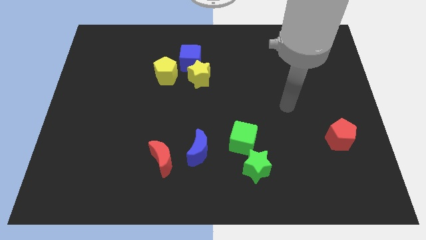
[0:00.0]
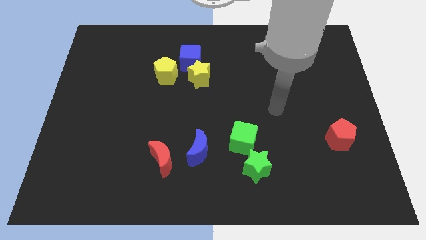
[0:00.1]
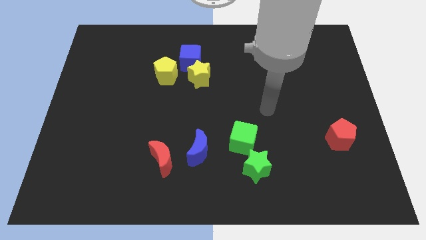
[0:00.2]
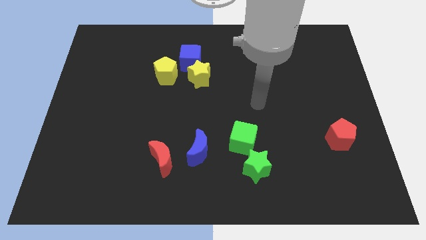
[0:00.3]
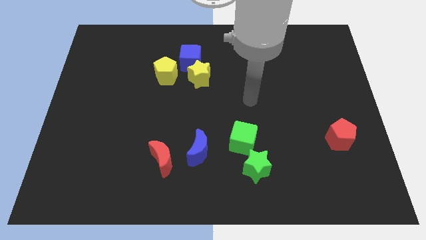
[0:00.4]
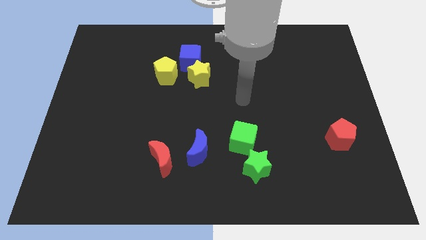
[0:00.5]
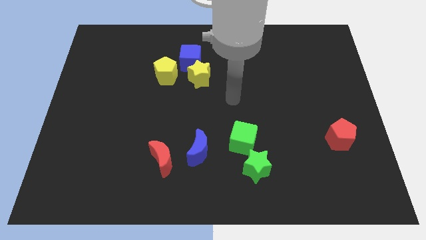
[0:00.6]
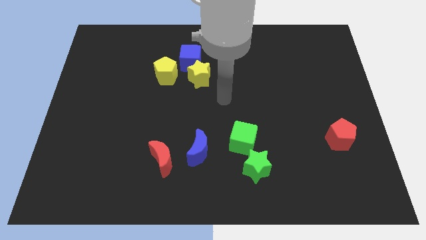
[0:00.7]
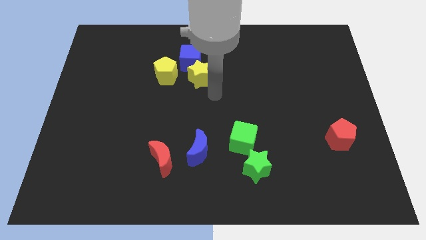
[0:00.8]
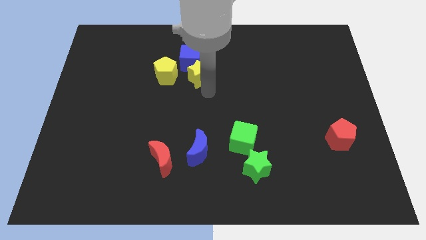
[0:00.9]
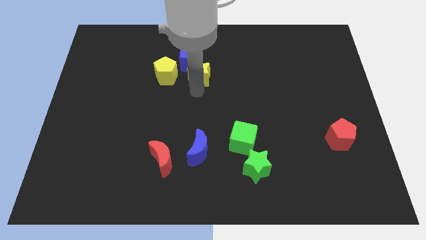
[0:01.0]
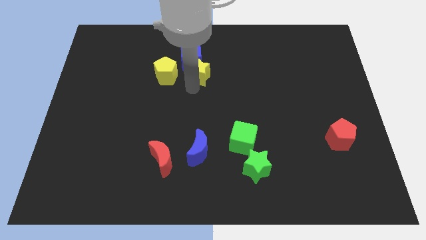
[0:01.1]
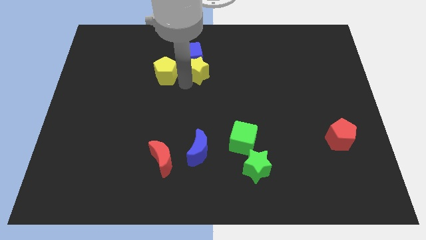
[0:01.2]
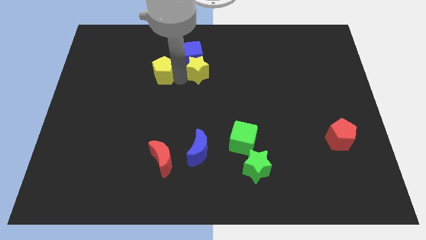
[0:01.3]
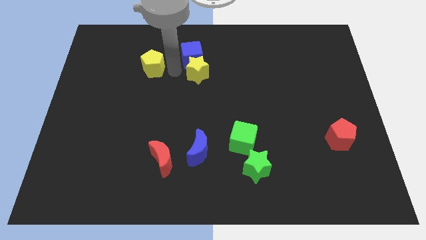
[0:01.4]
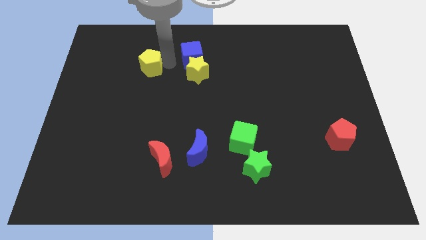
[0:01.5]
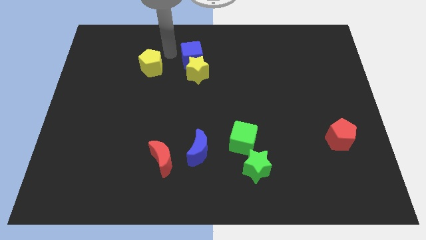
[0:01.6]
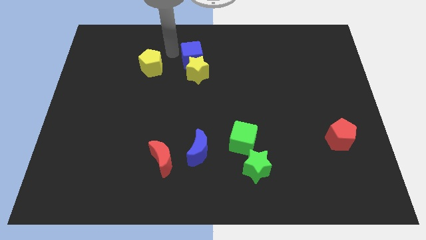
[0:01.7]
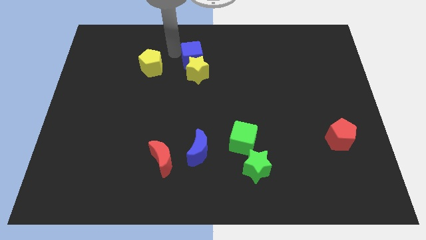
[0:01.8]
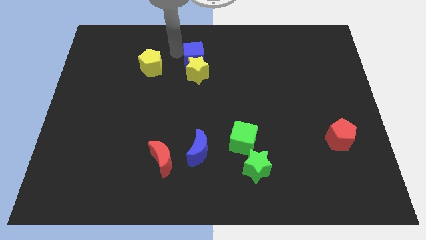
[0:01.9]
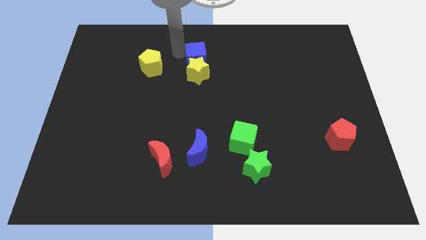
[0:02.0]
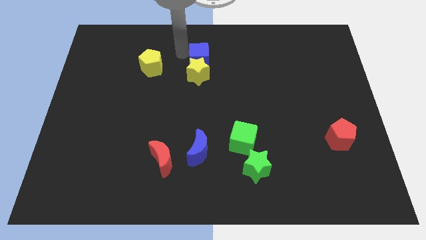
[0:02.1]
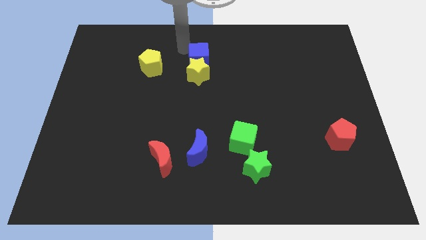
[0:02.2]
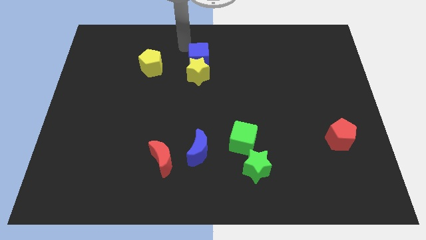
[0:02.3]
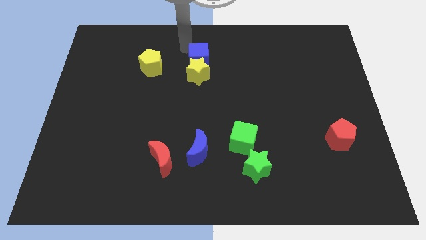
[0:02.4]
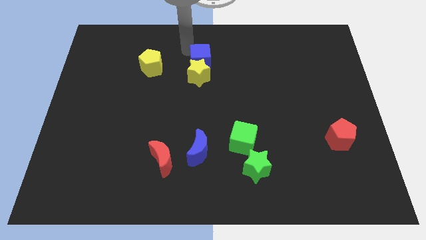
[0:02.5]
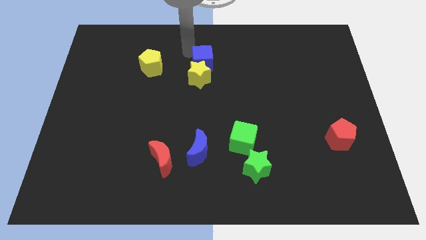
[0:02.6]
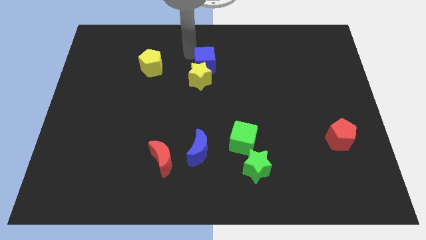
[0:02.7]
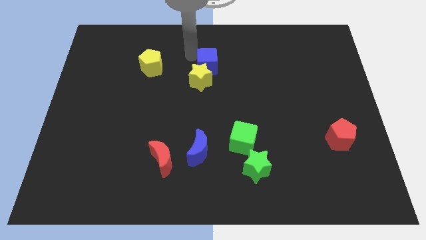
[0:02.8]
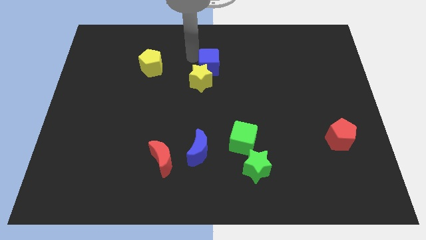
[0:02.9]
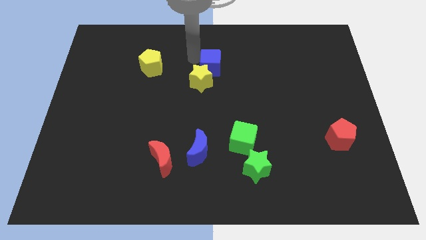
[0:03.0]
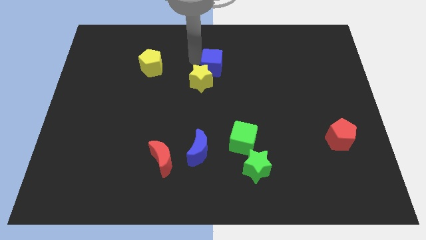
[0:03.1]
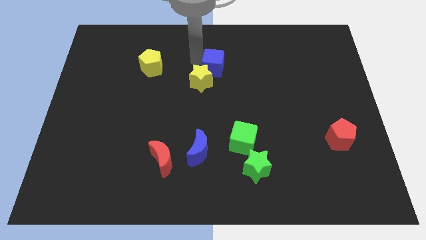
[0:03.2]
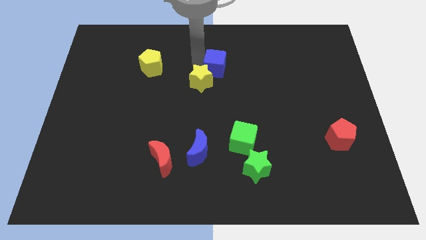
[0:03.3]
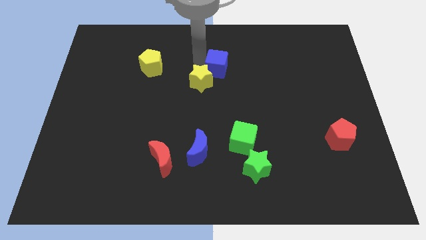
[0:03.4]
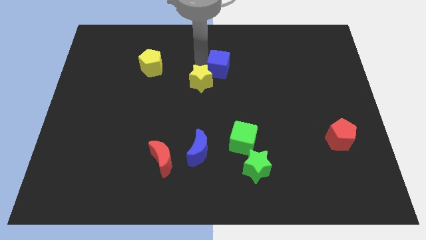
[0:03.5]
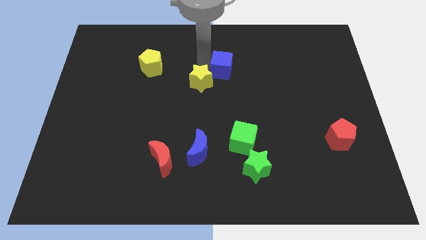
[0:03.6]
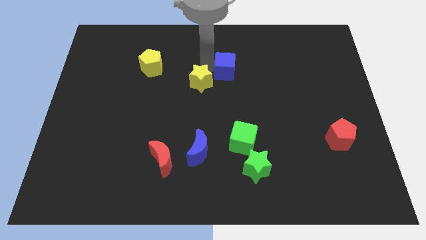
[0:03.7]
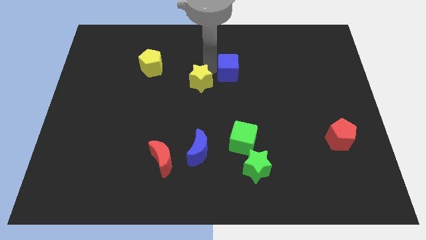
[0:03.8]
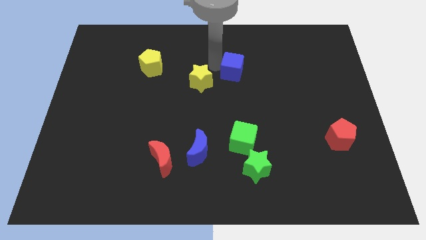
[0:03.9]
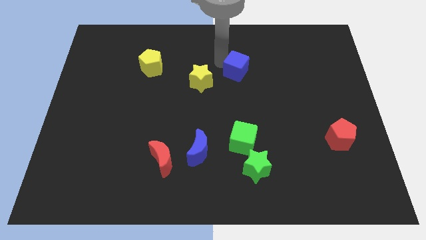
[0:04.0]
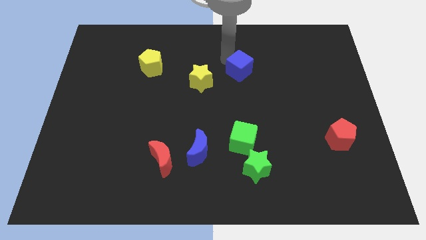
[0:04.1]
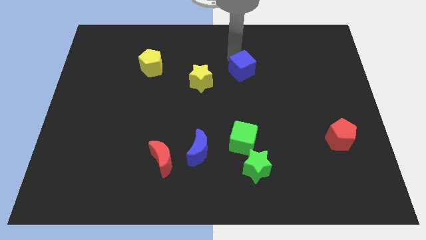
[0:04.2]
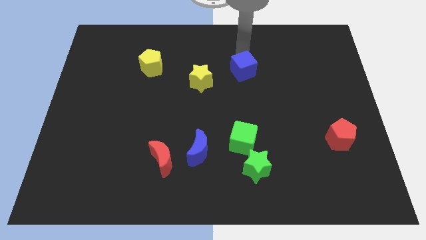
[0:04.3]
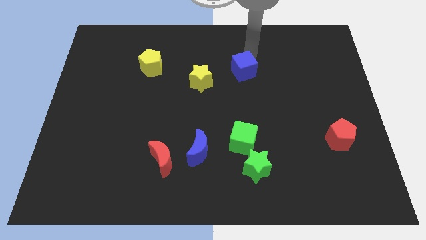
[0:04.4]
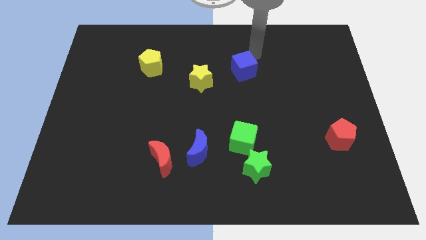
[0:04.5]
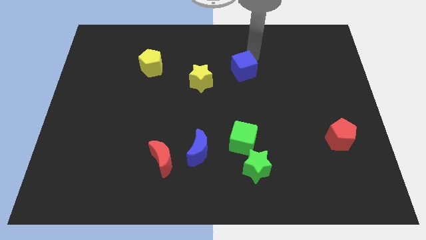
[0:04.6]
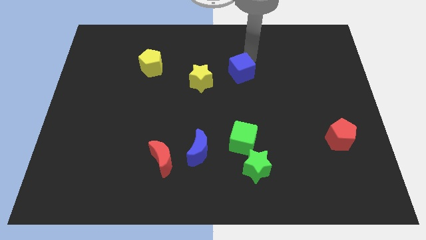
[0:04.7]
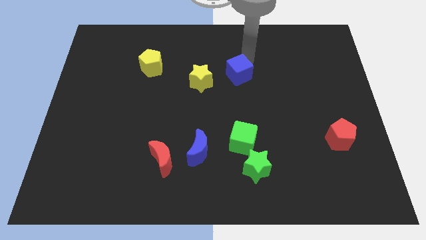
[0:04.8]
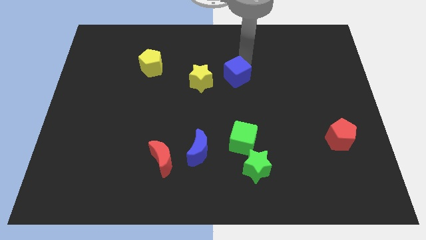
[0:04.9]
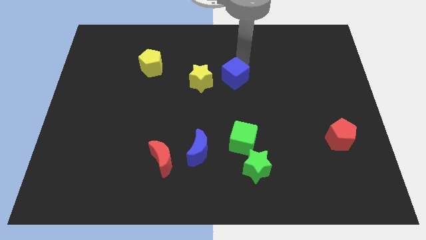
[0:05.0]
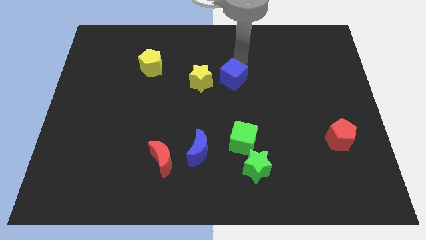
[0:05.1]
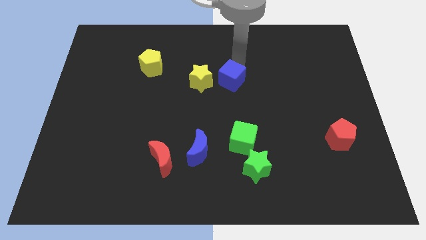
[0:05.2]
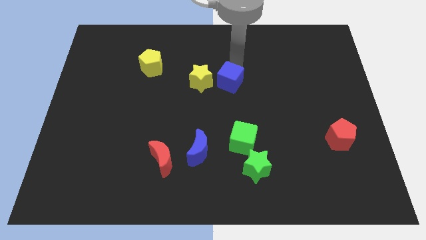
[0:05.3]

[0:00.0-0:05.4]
move the blue cube to the bottom right of the yellow star

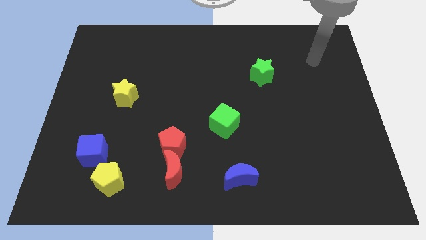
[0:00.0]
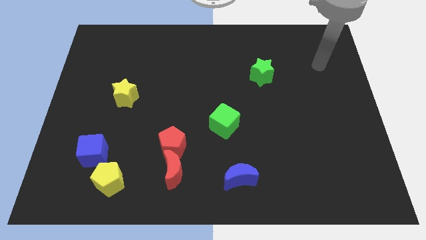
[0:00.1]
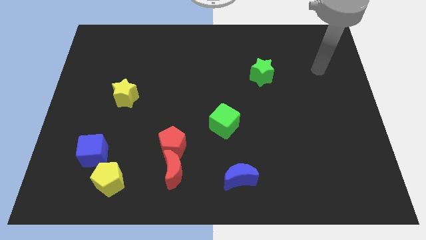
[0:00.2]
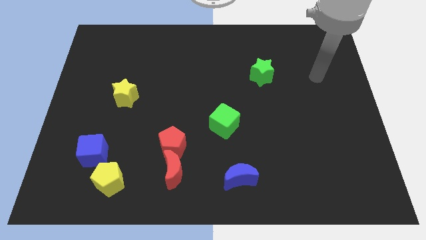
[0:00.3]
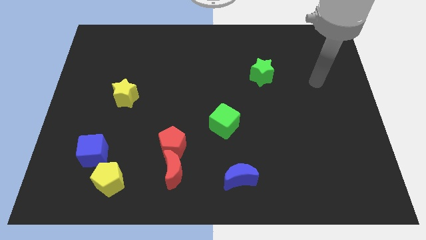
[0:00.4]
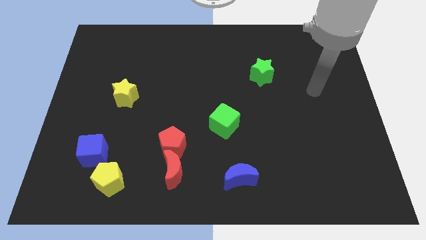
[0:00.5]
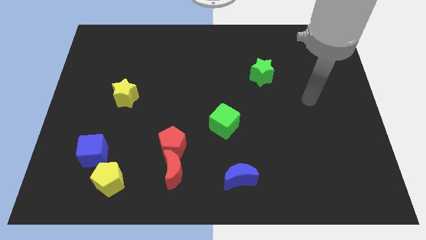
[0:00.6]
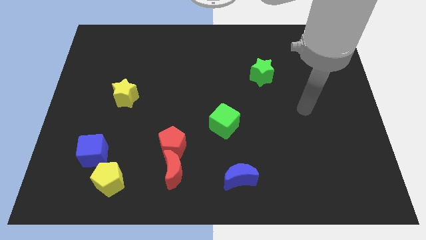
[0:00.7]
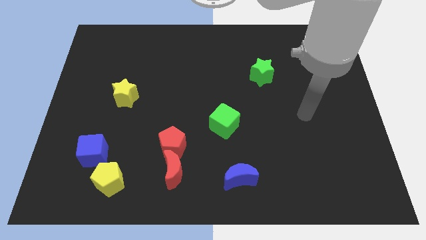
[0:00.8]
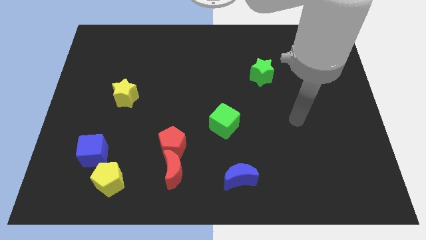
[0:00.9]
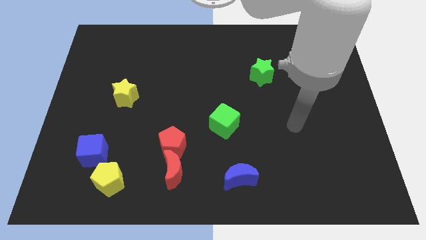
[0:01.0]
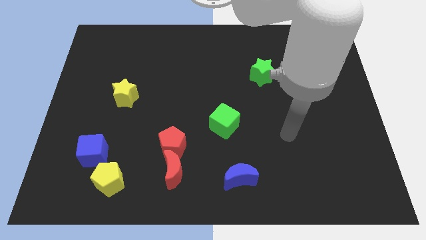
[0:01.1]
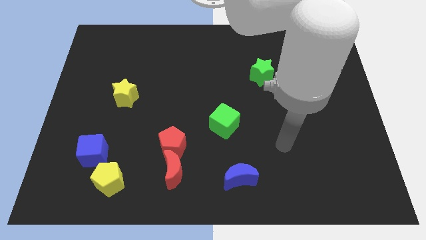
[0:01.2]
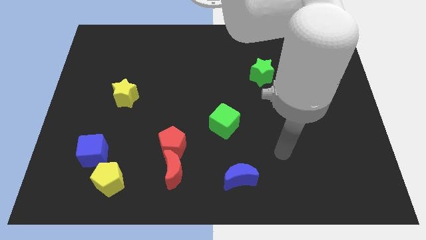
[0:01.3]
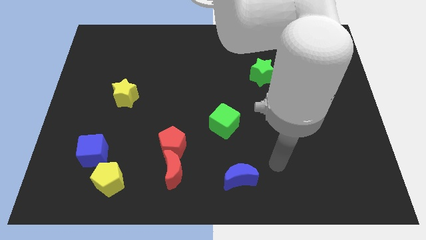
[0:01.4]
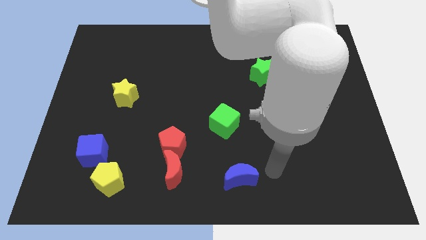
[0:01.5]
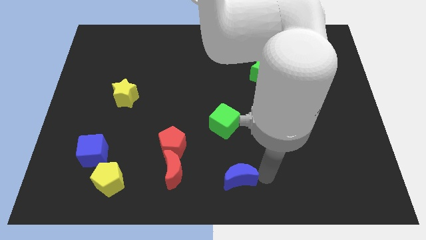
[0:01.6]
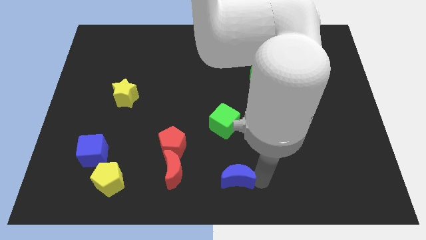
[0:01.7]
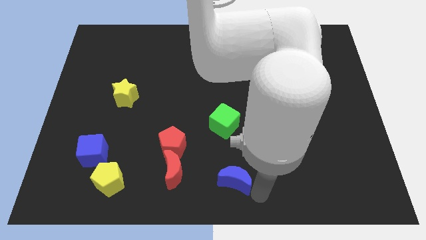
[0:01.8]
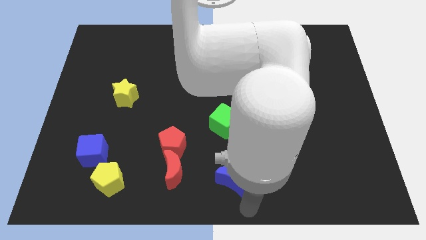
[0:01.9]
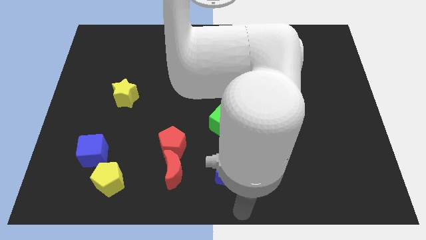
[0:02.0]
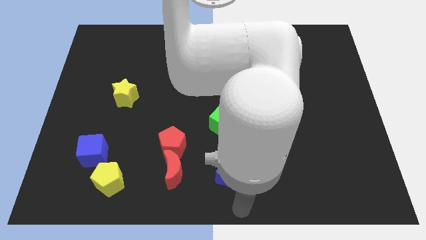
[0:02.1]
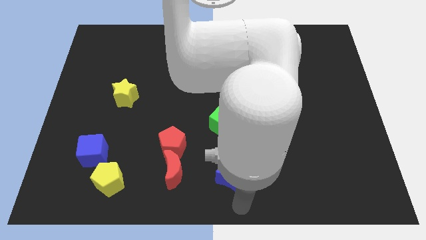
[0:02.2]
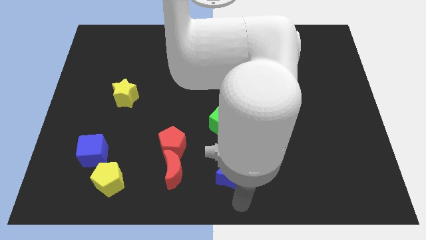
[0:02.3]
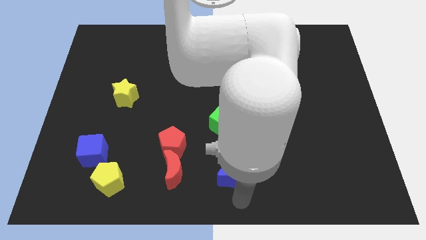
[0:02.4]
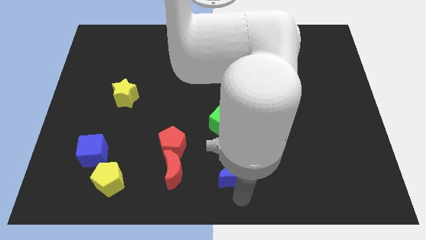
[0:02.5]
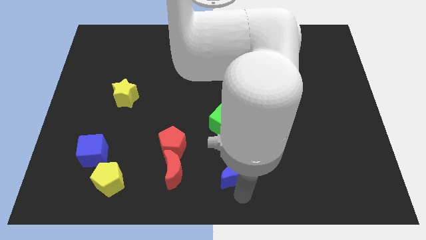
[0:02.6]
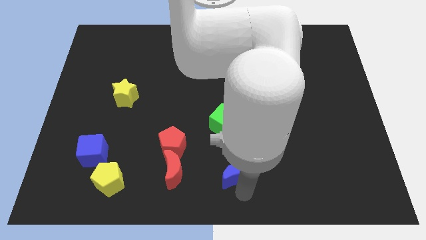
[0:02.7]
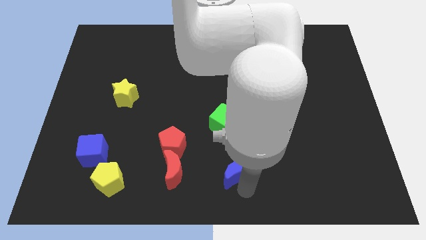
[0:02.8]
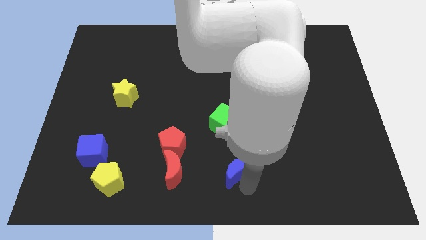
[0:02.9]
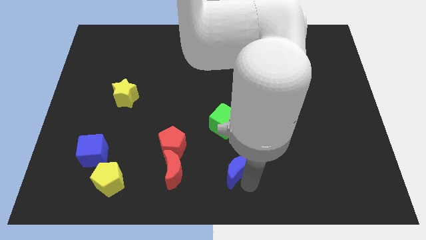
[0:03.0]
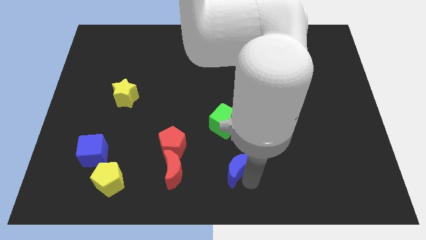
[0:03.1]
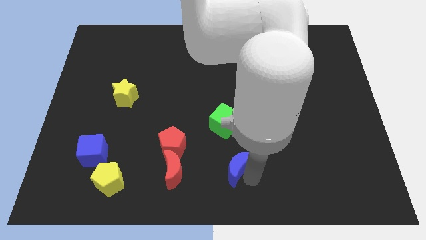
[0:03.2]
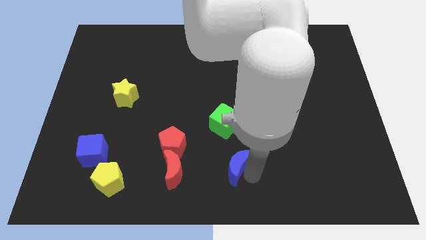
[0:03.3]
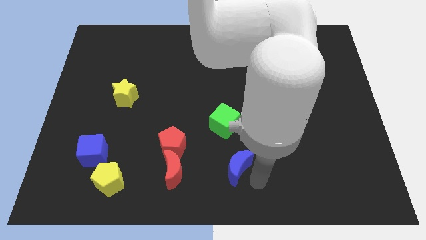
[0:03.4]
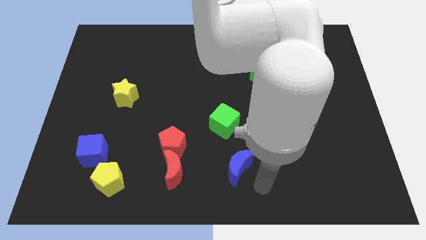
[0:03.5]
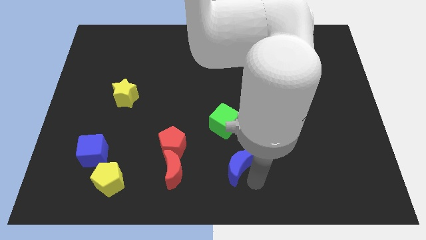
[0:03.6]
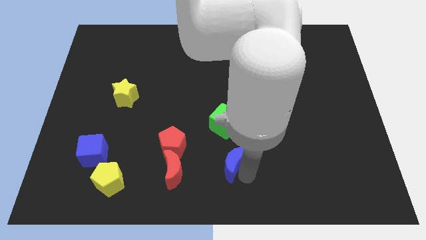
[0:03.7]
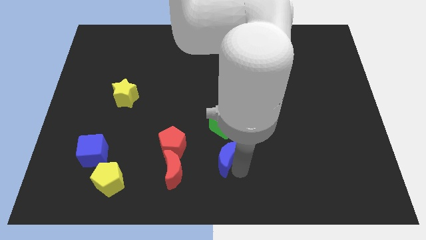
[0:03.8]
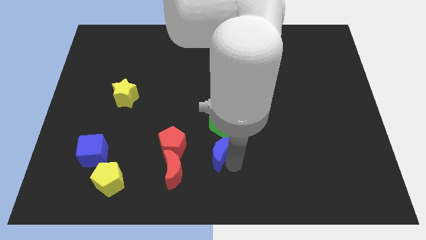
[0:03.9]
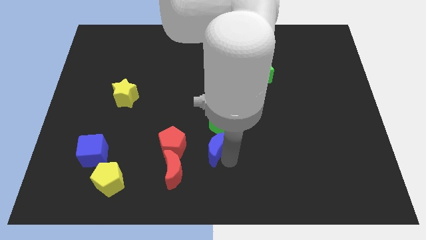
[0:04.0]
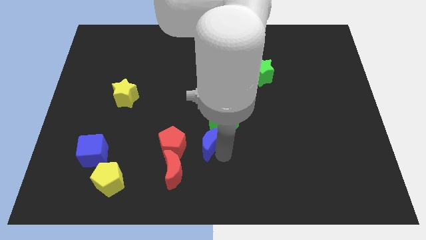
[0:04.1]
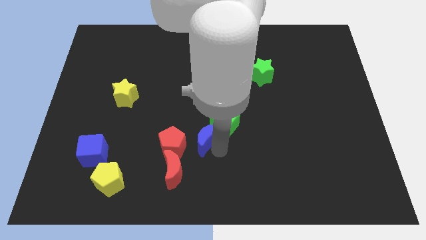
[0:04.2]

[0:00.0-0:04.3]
put the blue moon to the left of the green cube
